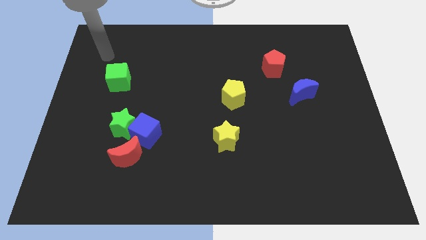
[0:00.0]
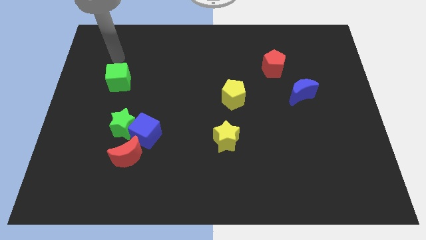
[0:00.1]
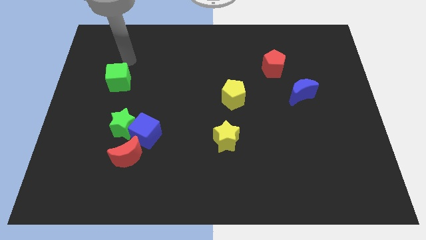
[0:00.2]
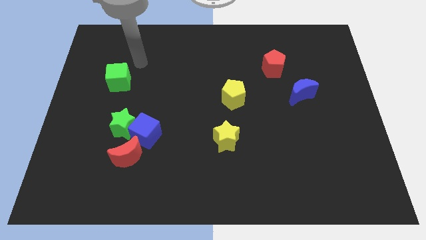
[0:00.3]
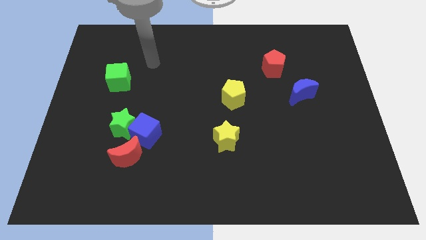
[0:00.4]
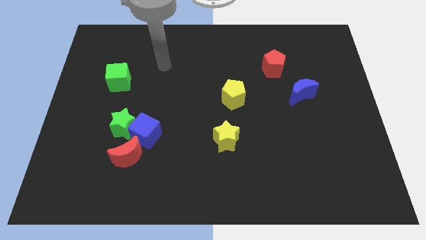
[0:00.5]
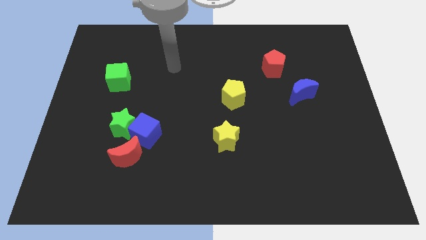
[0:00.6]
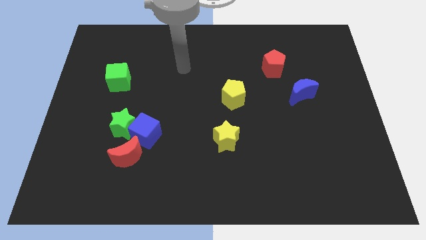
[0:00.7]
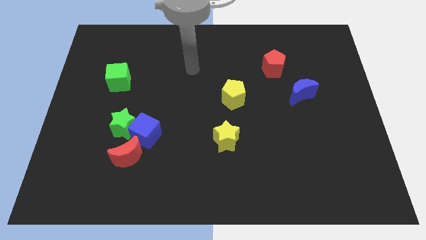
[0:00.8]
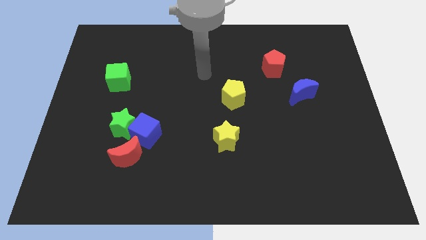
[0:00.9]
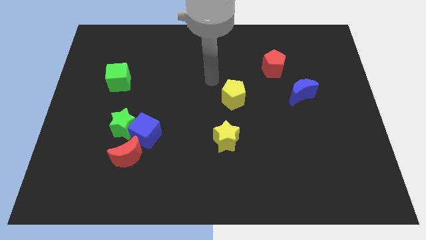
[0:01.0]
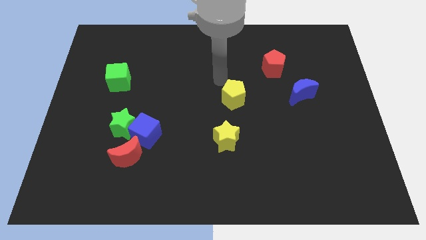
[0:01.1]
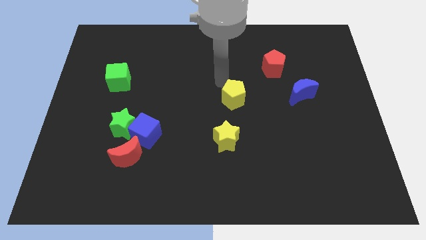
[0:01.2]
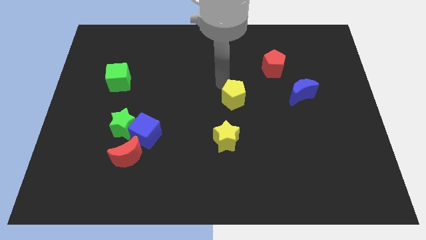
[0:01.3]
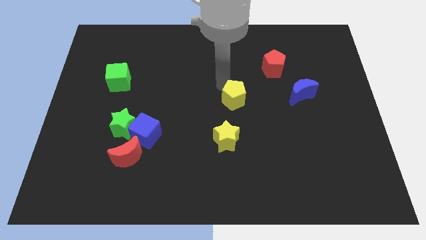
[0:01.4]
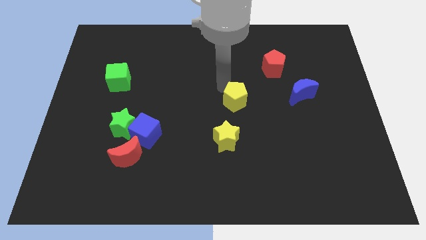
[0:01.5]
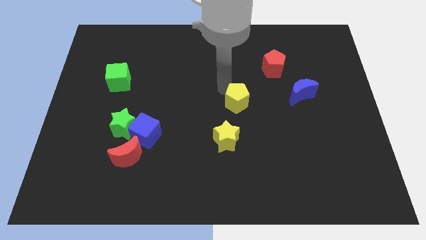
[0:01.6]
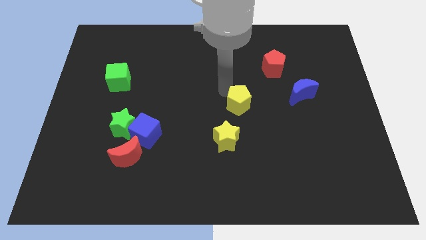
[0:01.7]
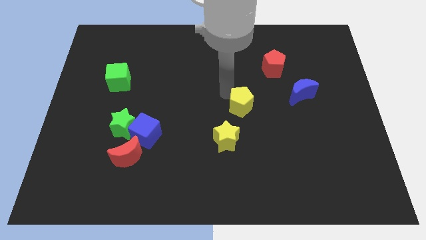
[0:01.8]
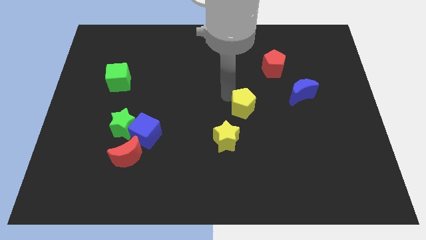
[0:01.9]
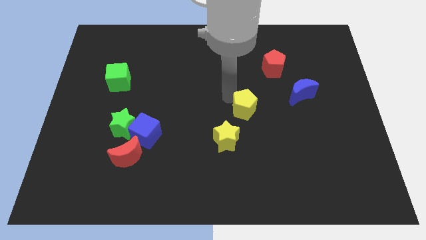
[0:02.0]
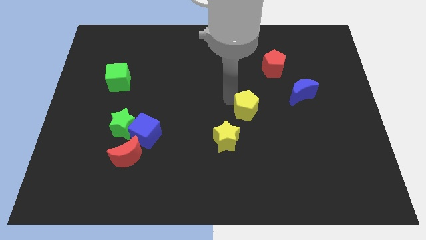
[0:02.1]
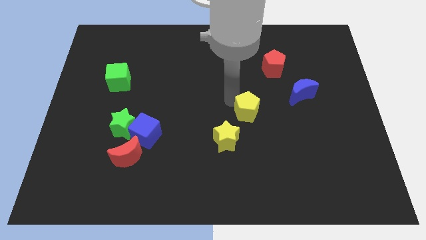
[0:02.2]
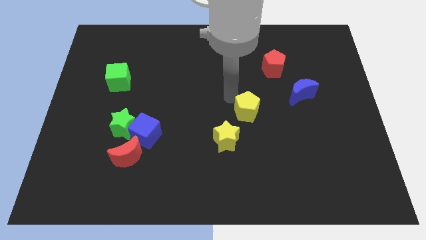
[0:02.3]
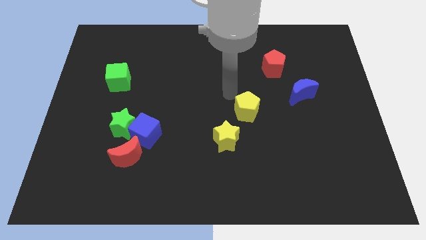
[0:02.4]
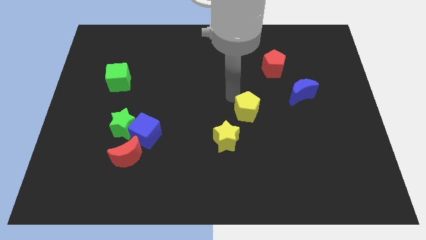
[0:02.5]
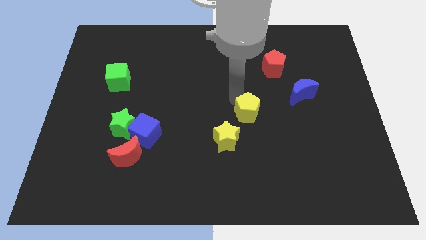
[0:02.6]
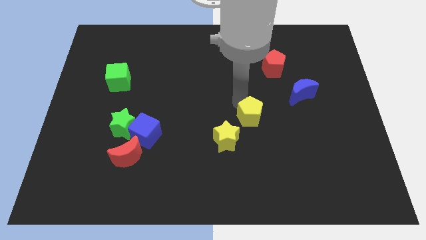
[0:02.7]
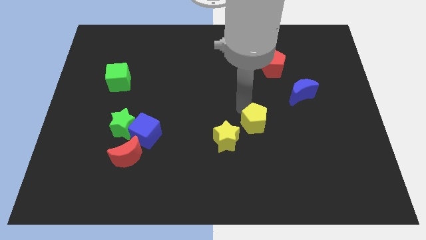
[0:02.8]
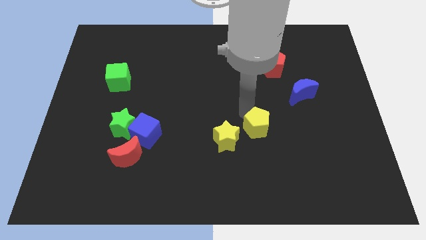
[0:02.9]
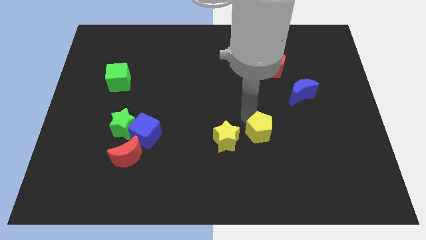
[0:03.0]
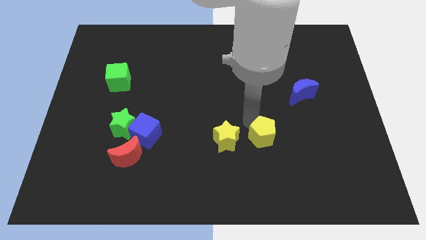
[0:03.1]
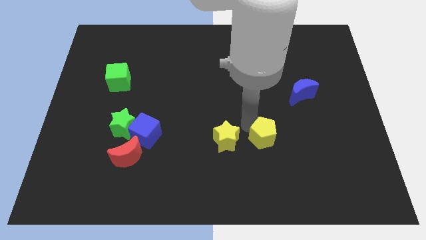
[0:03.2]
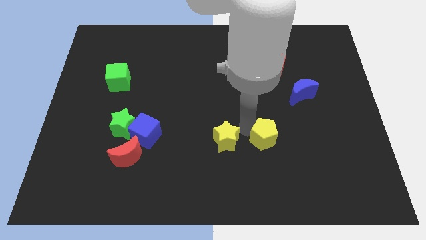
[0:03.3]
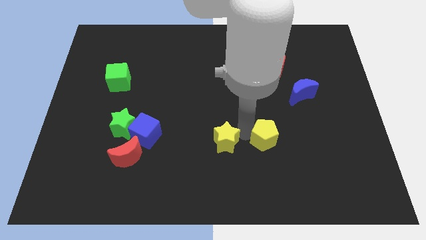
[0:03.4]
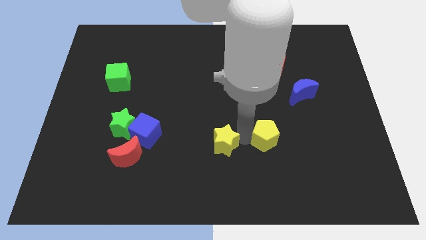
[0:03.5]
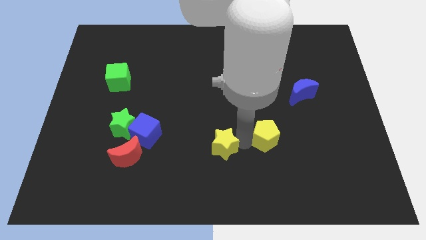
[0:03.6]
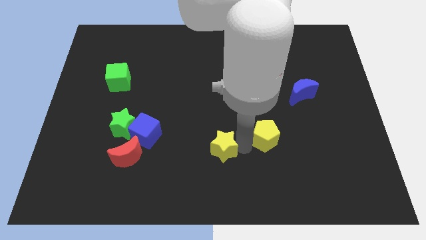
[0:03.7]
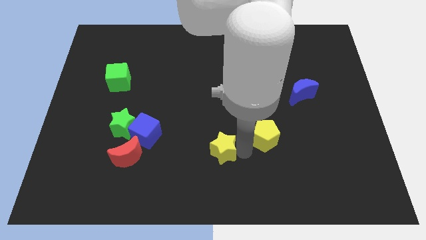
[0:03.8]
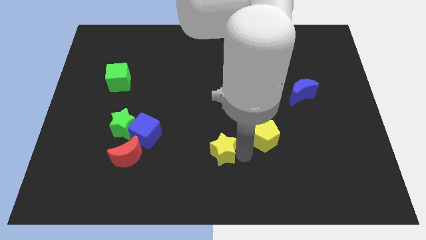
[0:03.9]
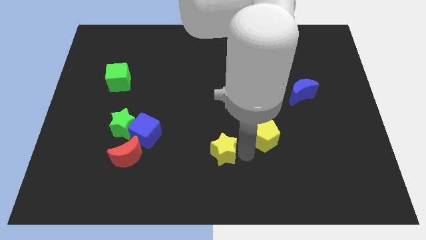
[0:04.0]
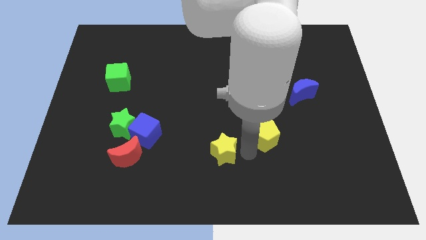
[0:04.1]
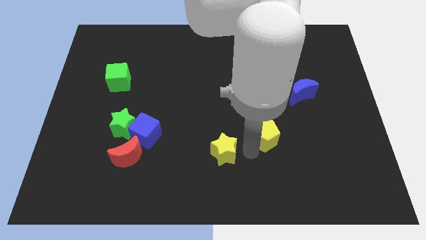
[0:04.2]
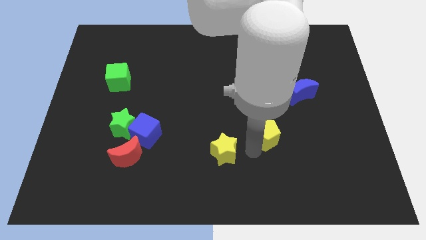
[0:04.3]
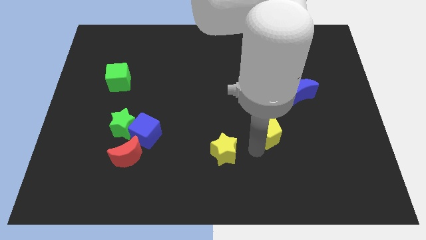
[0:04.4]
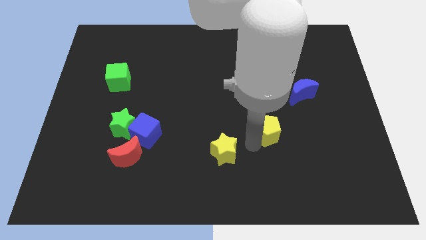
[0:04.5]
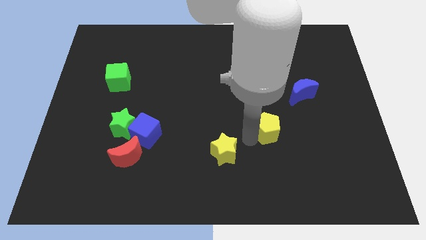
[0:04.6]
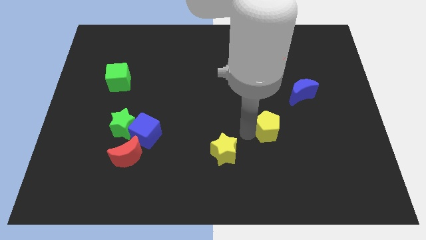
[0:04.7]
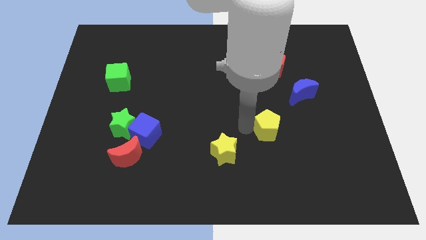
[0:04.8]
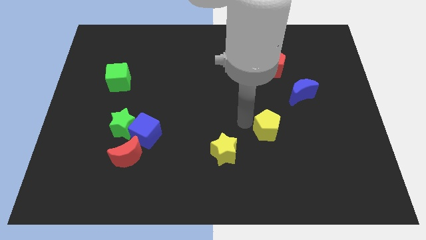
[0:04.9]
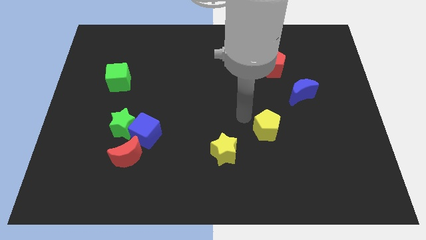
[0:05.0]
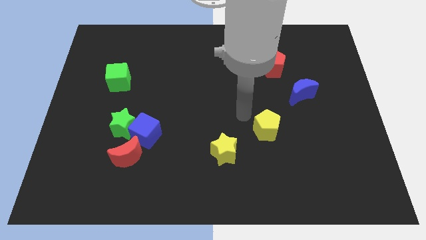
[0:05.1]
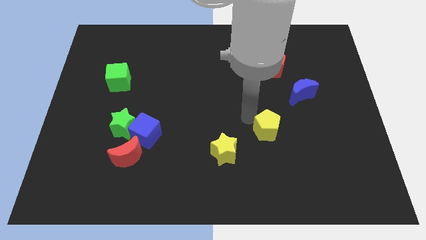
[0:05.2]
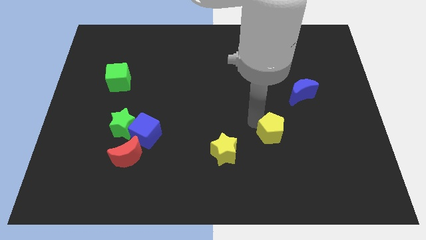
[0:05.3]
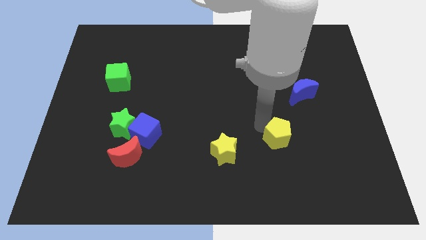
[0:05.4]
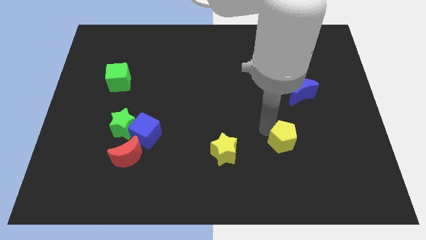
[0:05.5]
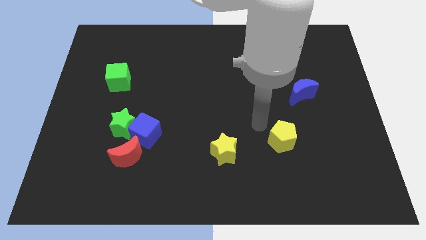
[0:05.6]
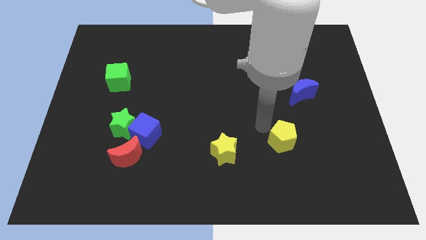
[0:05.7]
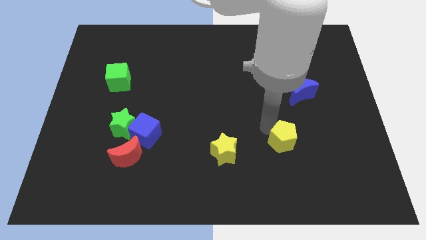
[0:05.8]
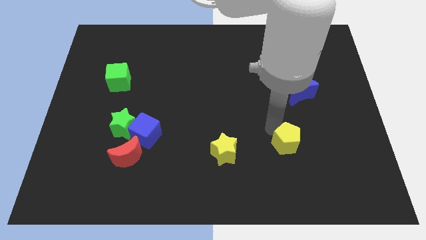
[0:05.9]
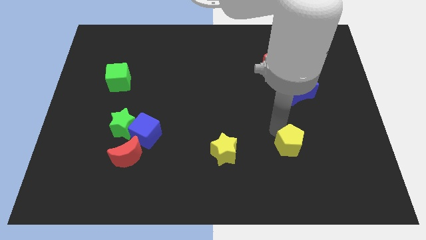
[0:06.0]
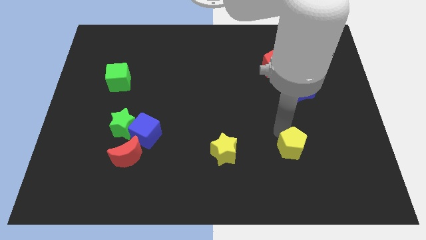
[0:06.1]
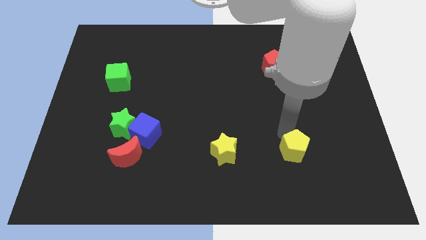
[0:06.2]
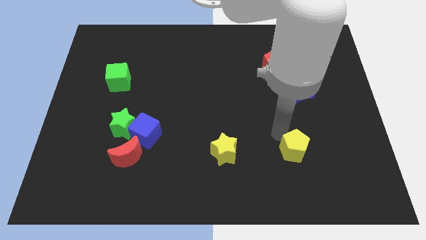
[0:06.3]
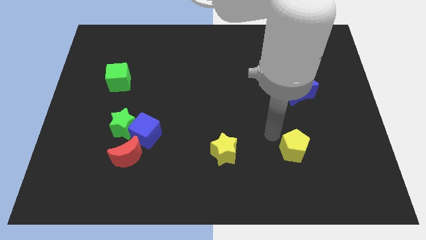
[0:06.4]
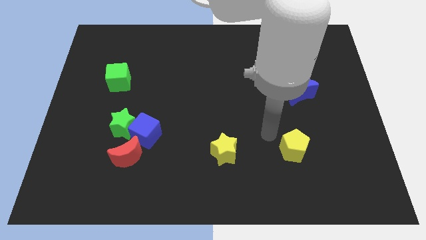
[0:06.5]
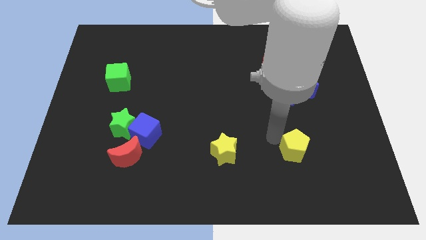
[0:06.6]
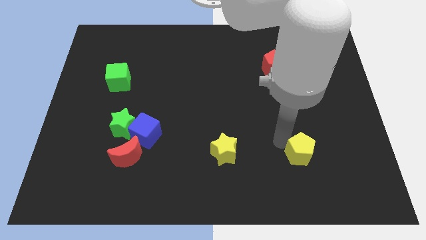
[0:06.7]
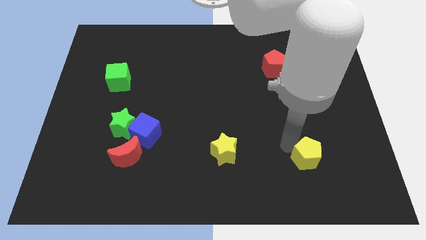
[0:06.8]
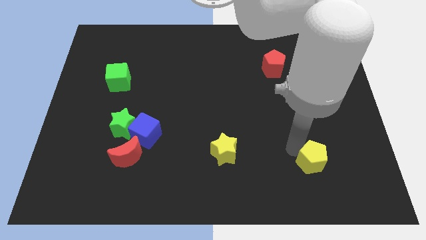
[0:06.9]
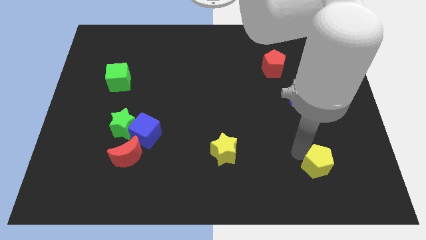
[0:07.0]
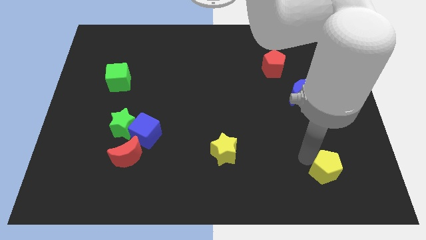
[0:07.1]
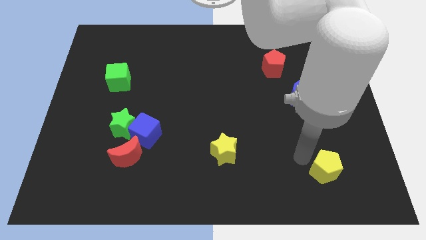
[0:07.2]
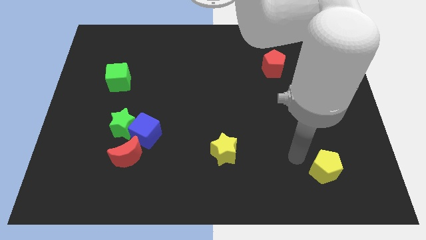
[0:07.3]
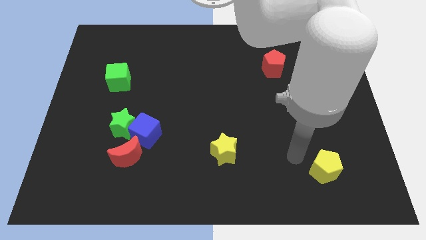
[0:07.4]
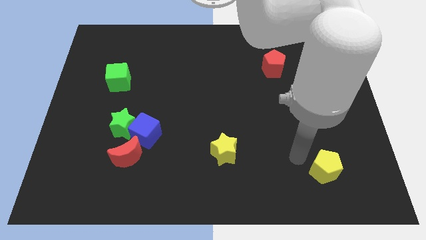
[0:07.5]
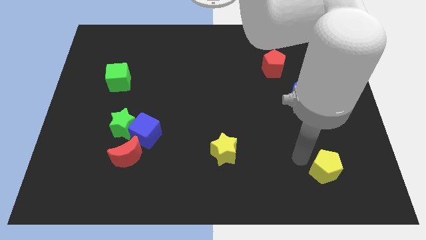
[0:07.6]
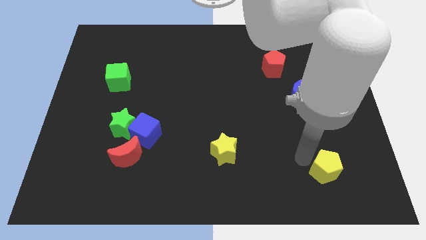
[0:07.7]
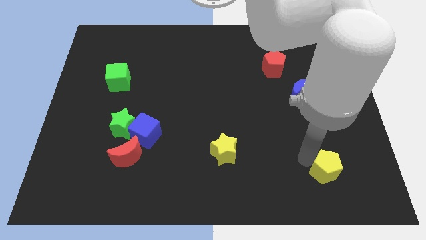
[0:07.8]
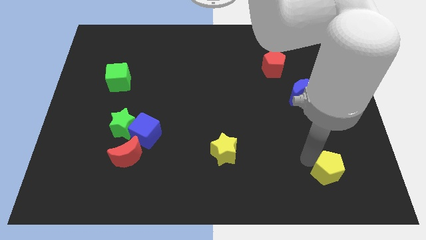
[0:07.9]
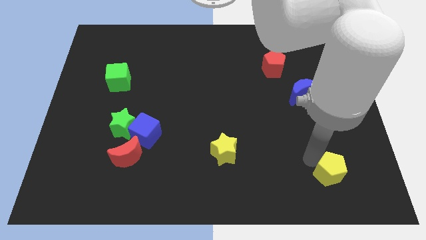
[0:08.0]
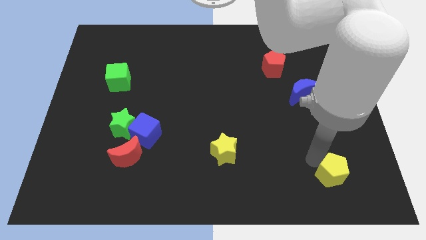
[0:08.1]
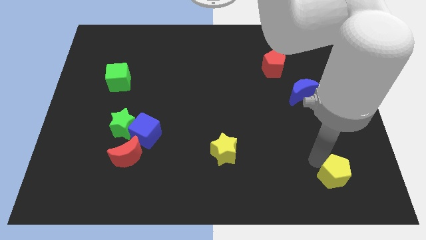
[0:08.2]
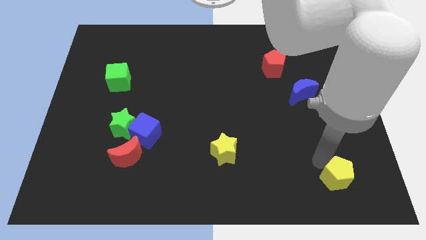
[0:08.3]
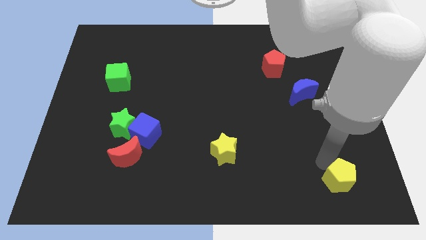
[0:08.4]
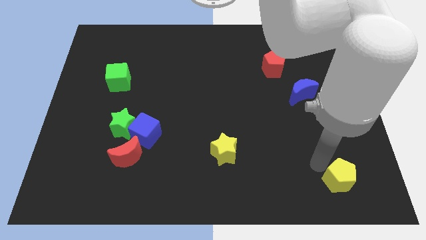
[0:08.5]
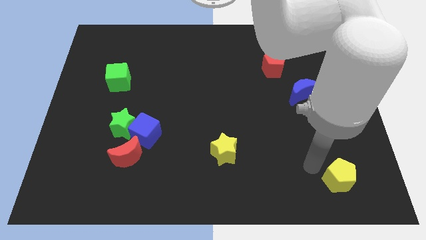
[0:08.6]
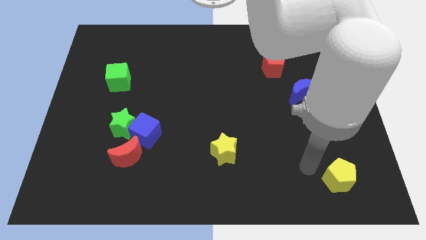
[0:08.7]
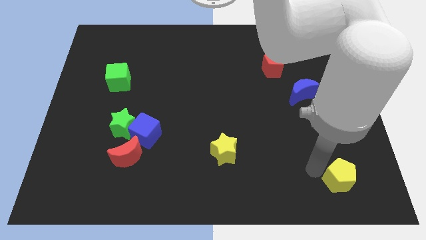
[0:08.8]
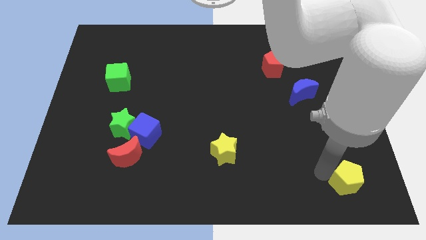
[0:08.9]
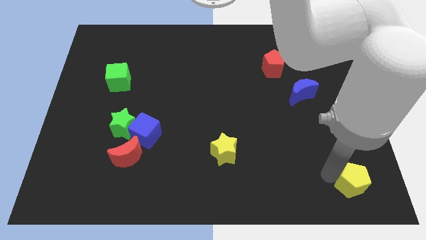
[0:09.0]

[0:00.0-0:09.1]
put the yellow pentagon to the bottom right
